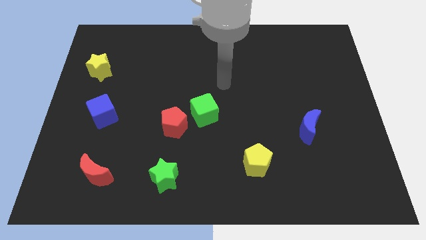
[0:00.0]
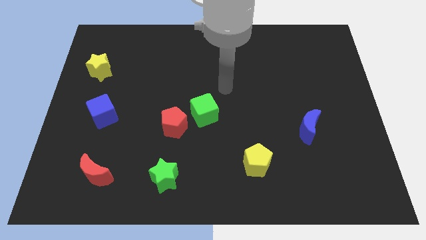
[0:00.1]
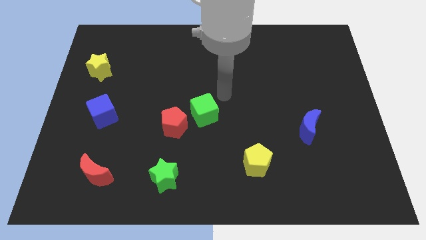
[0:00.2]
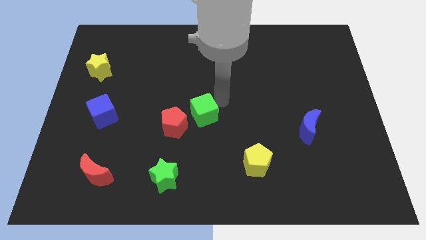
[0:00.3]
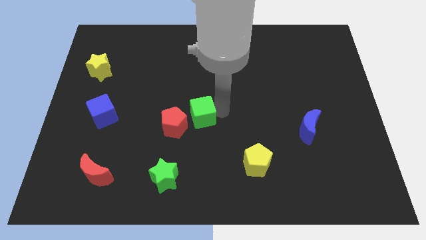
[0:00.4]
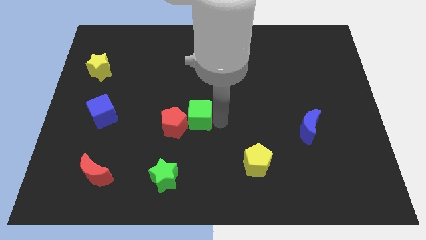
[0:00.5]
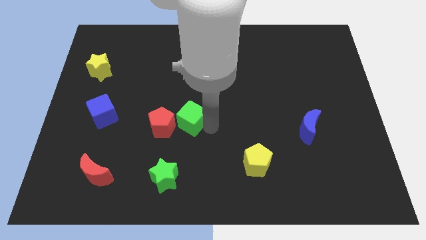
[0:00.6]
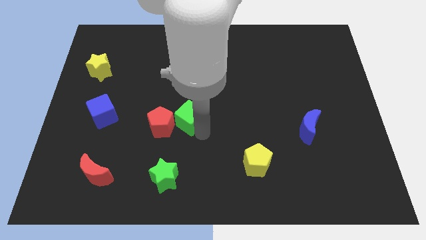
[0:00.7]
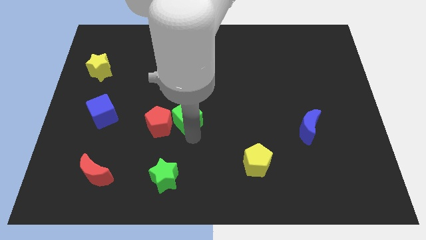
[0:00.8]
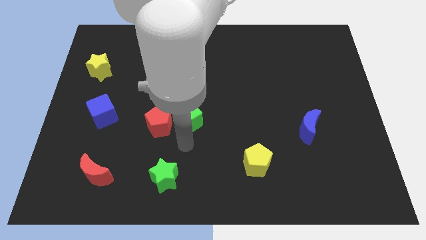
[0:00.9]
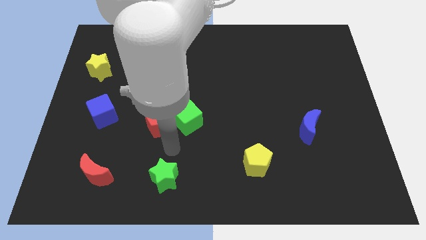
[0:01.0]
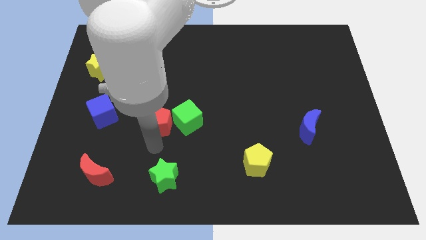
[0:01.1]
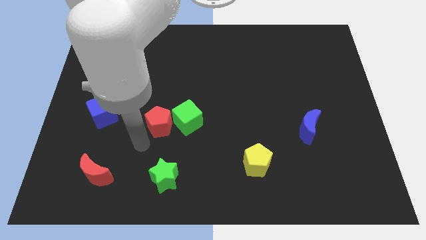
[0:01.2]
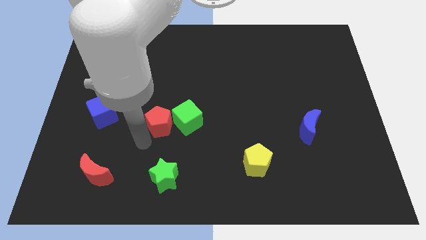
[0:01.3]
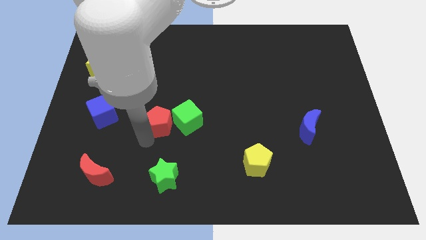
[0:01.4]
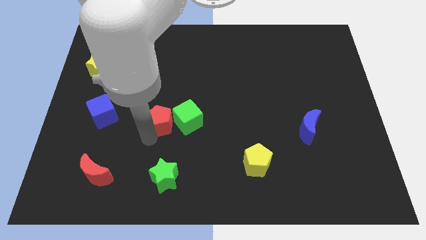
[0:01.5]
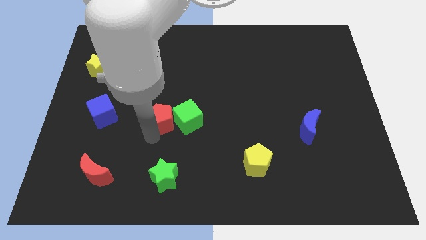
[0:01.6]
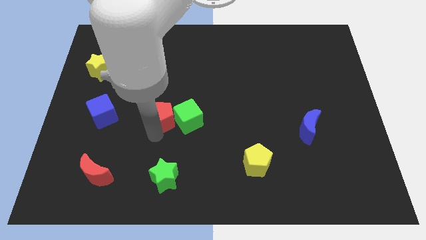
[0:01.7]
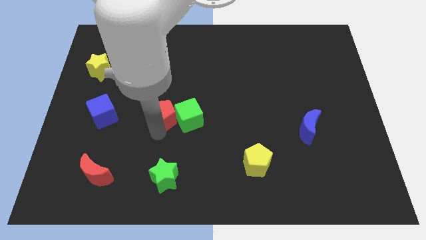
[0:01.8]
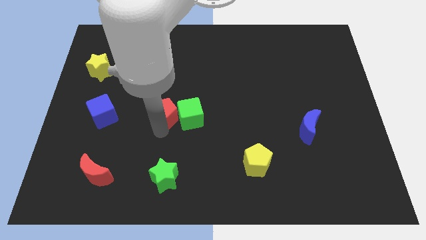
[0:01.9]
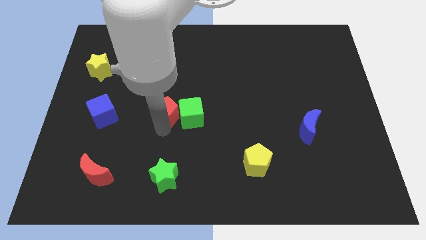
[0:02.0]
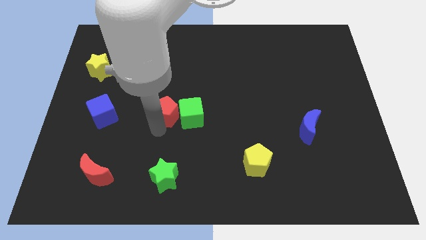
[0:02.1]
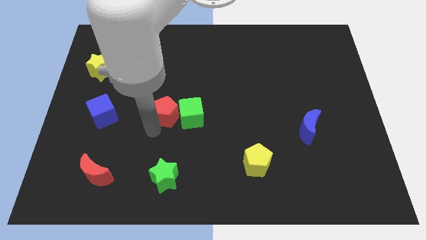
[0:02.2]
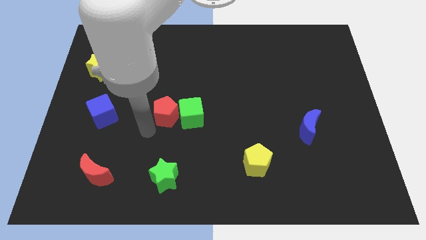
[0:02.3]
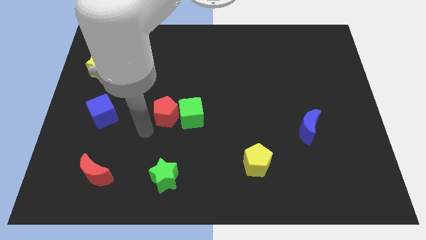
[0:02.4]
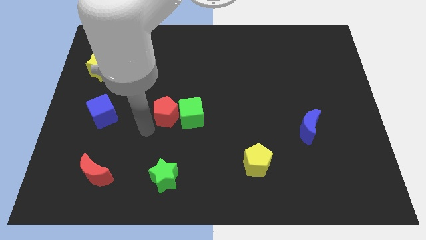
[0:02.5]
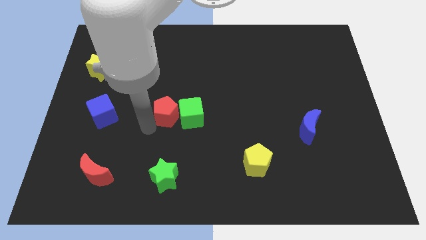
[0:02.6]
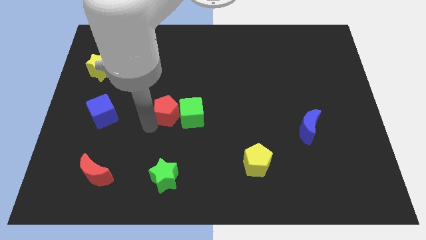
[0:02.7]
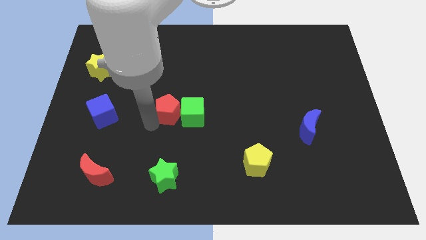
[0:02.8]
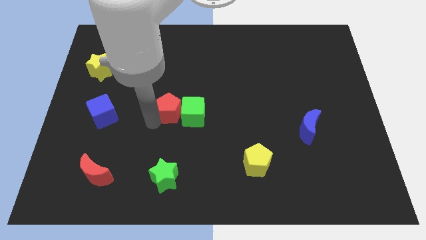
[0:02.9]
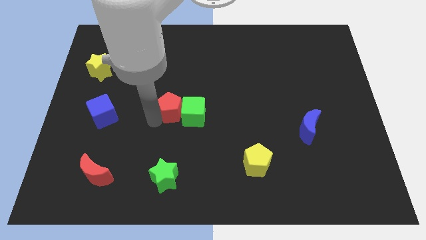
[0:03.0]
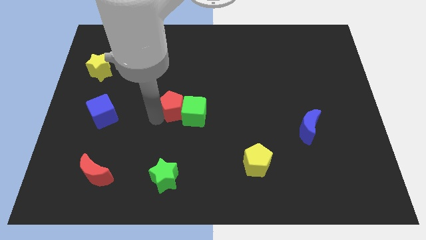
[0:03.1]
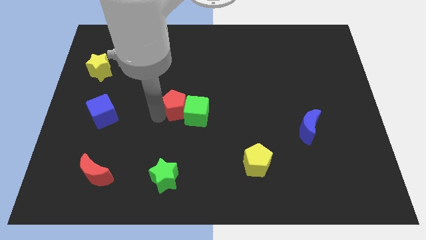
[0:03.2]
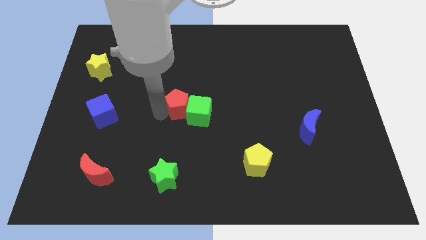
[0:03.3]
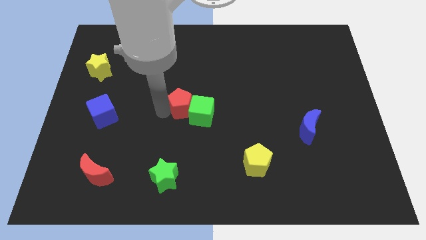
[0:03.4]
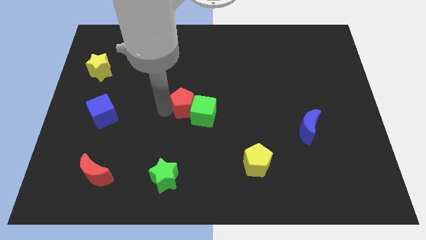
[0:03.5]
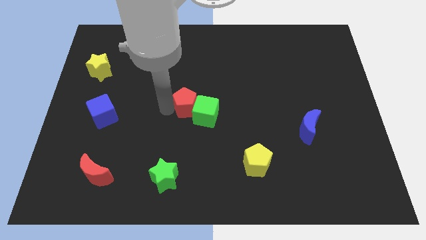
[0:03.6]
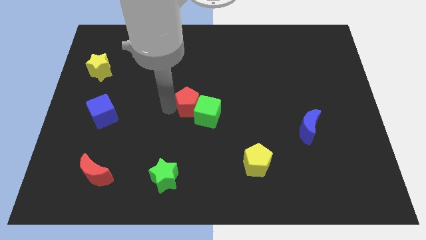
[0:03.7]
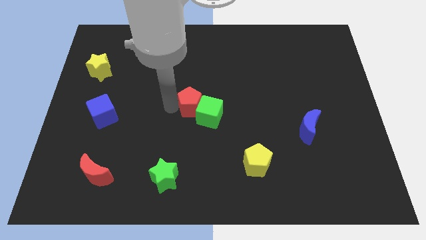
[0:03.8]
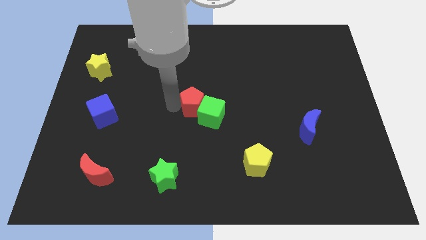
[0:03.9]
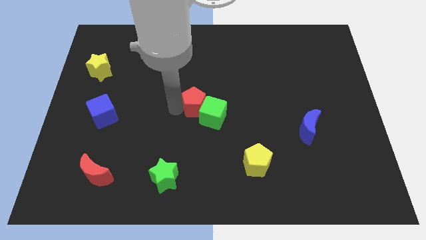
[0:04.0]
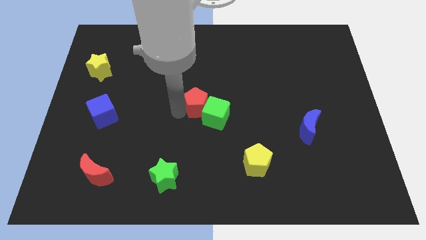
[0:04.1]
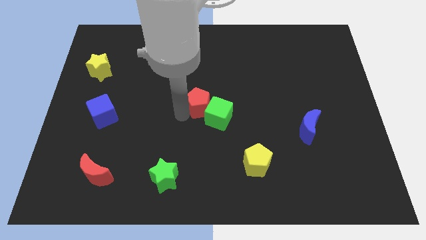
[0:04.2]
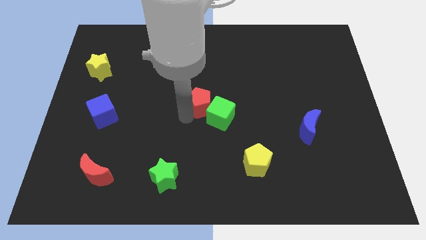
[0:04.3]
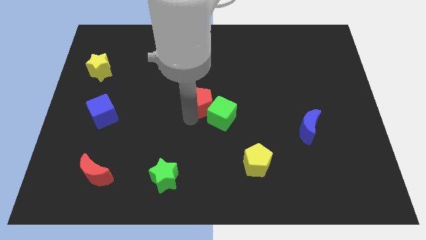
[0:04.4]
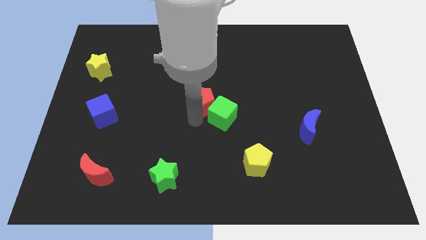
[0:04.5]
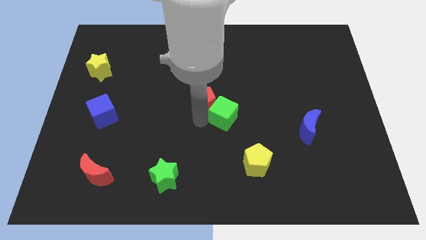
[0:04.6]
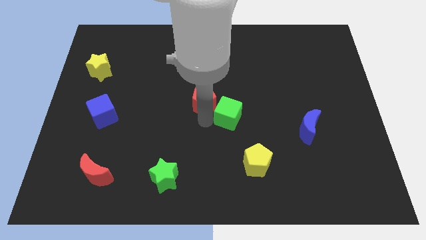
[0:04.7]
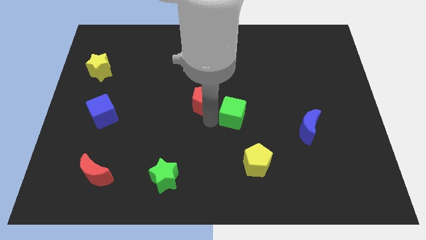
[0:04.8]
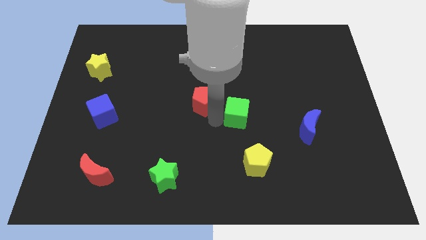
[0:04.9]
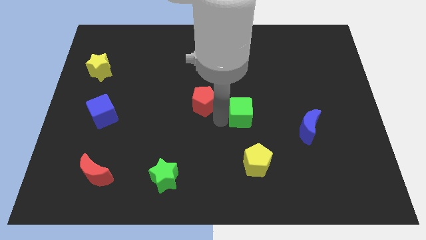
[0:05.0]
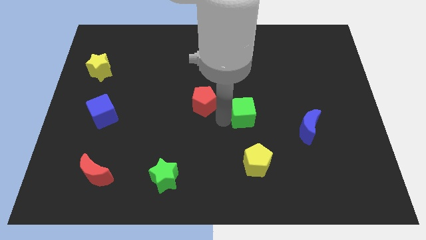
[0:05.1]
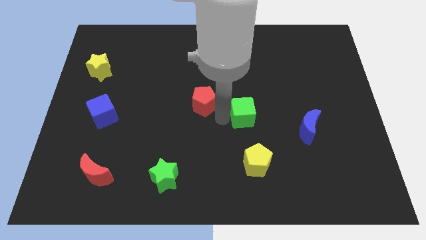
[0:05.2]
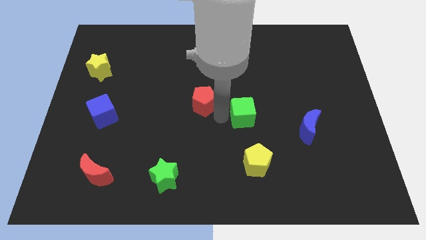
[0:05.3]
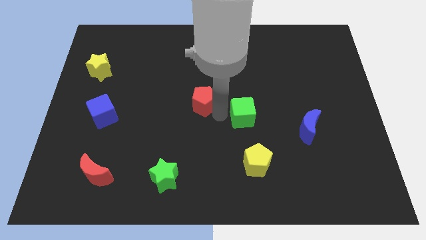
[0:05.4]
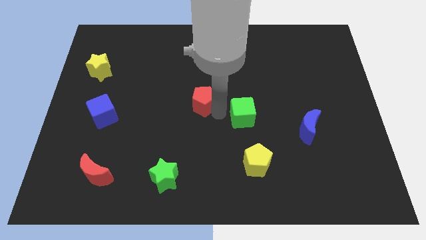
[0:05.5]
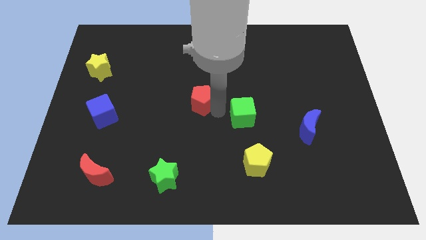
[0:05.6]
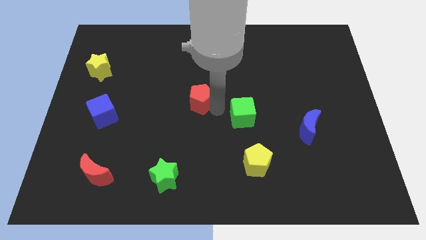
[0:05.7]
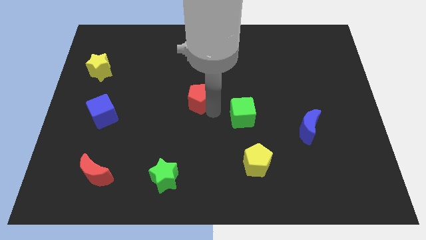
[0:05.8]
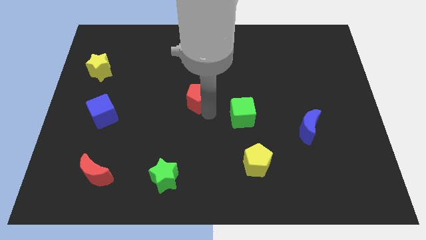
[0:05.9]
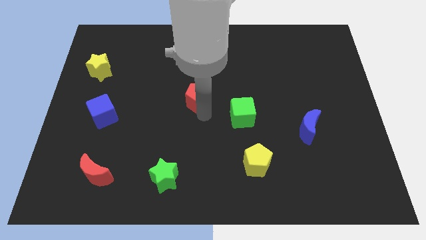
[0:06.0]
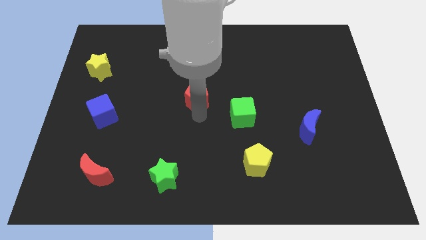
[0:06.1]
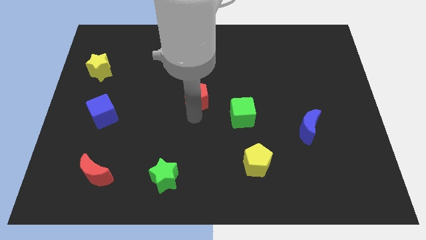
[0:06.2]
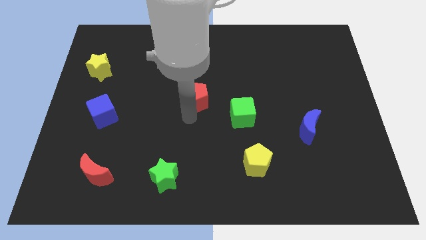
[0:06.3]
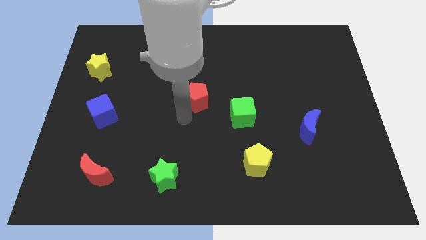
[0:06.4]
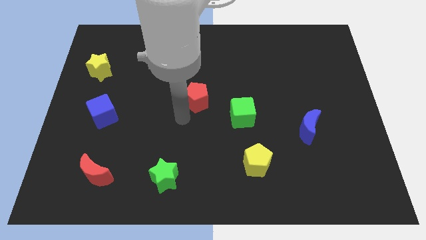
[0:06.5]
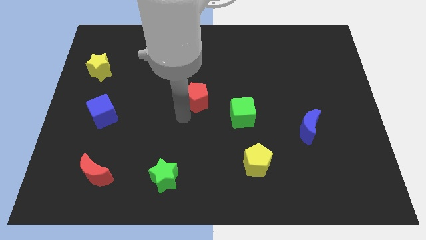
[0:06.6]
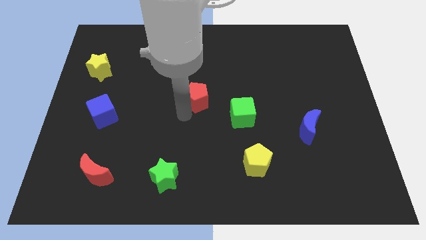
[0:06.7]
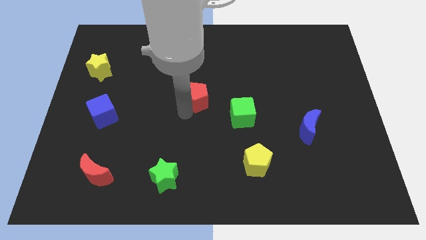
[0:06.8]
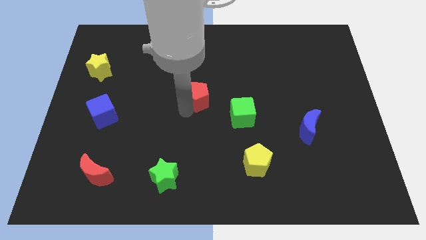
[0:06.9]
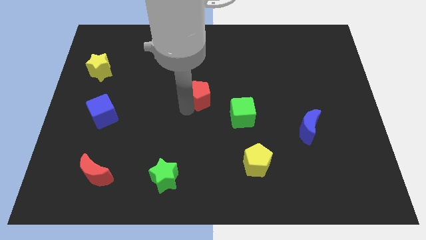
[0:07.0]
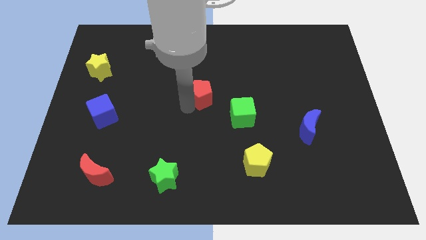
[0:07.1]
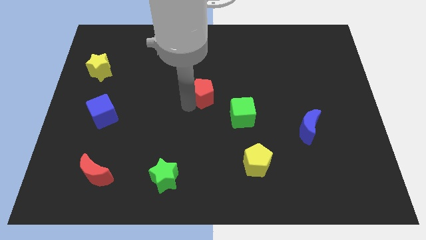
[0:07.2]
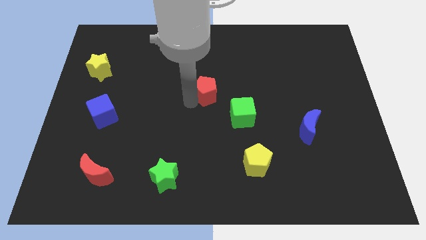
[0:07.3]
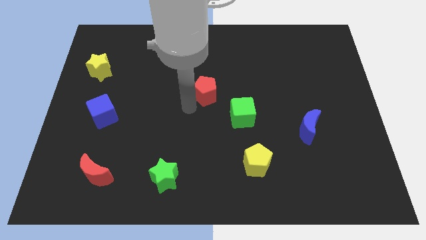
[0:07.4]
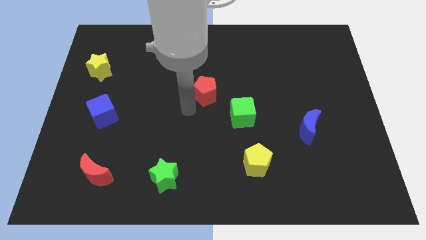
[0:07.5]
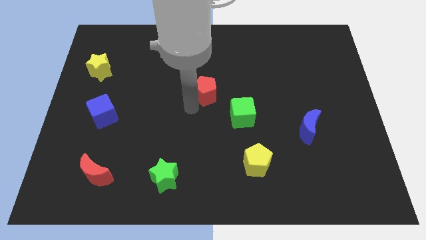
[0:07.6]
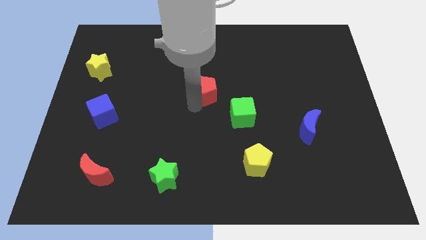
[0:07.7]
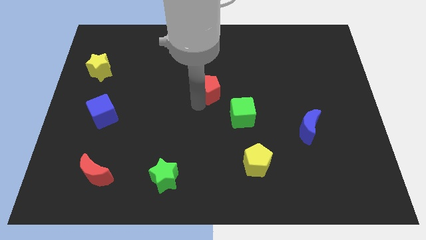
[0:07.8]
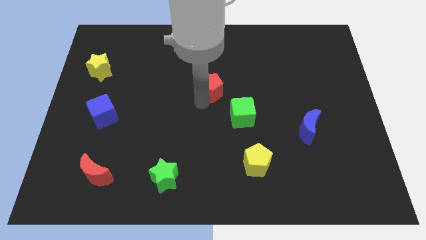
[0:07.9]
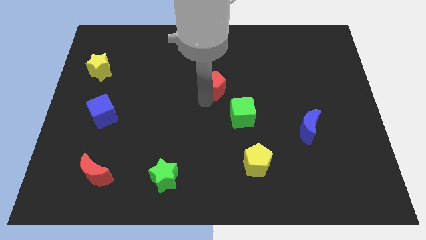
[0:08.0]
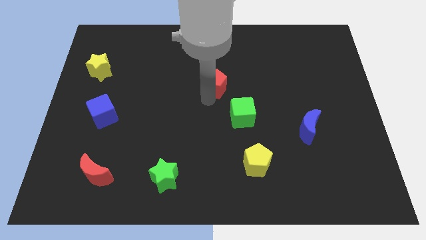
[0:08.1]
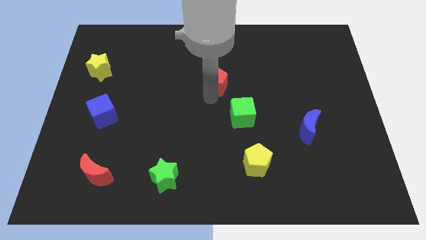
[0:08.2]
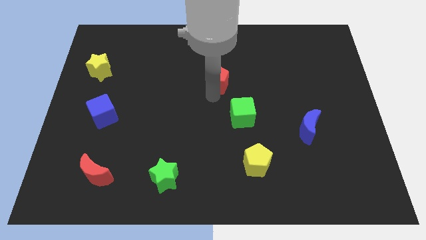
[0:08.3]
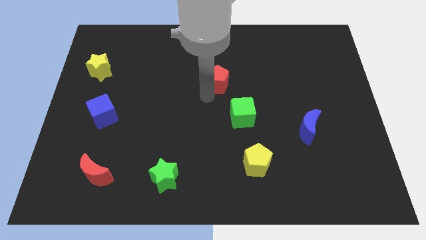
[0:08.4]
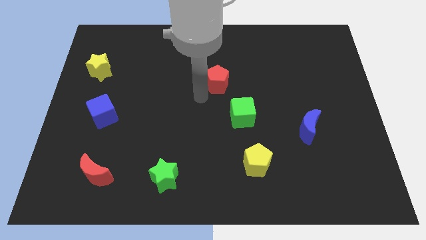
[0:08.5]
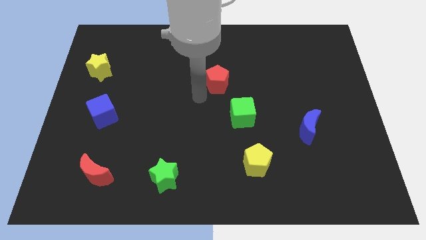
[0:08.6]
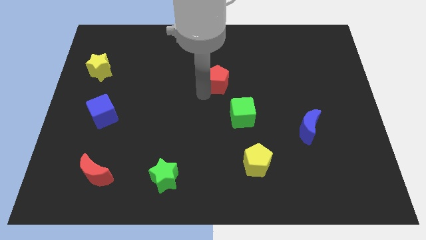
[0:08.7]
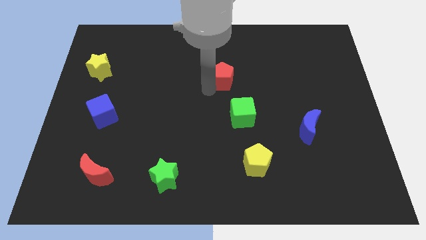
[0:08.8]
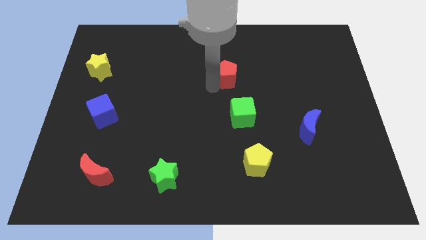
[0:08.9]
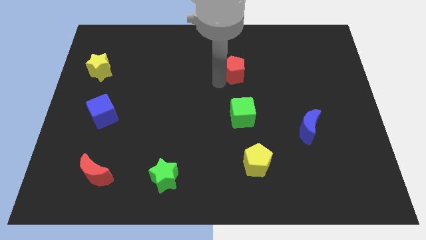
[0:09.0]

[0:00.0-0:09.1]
slide the red pentagon upwards and then to the right
